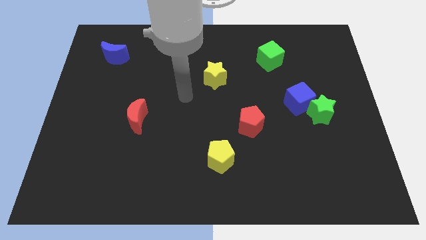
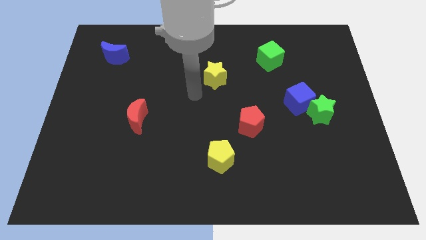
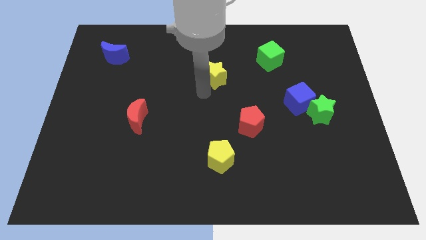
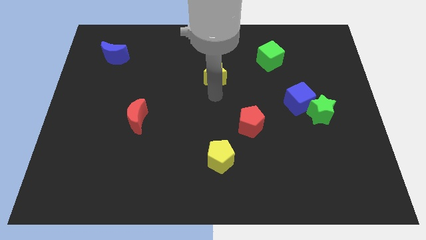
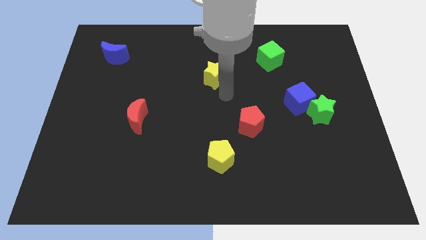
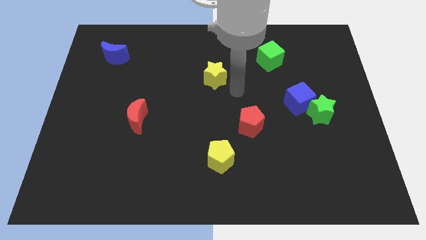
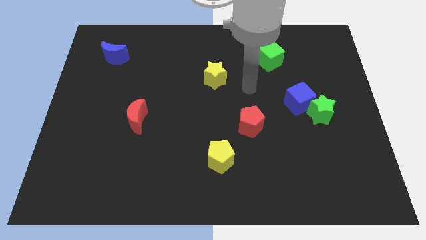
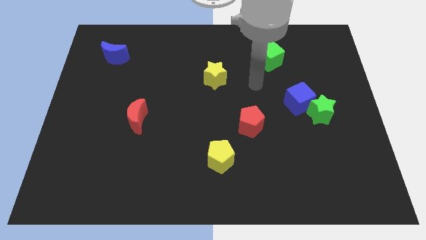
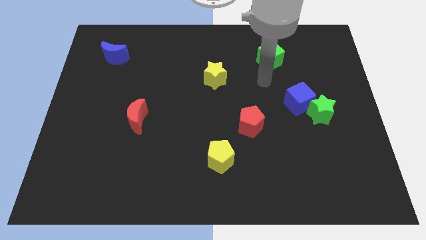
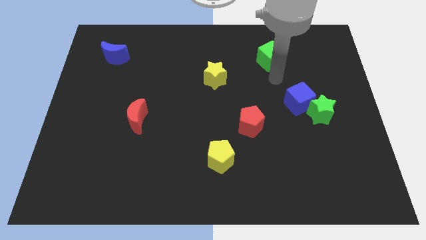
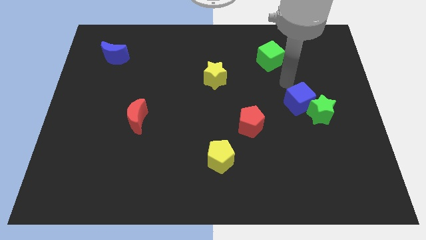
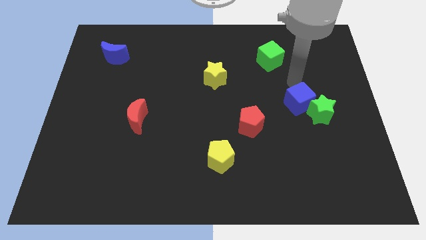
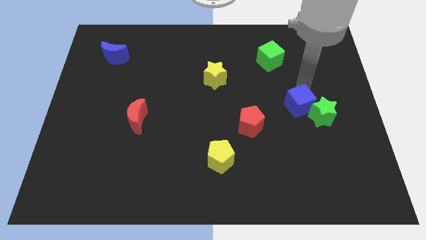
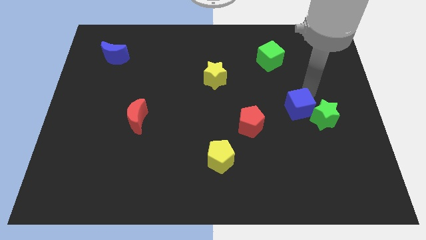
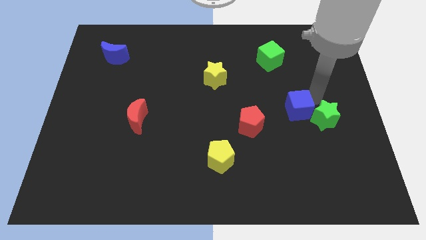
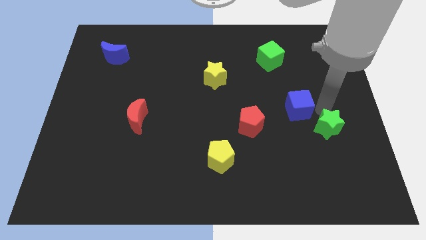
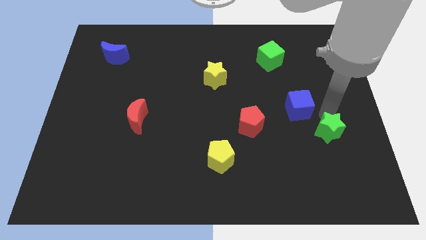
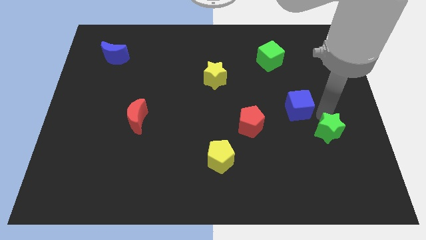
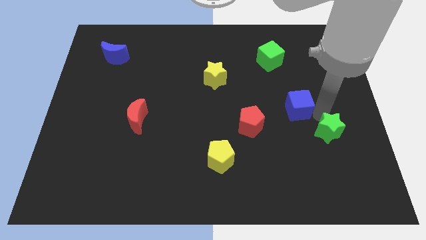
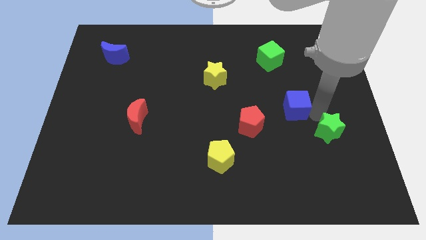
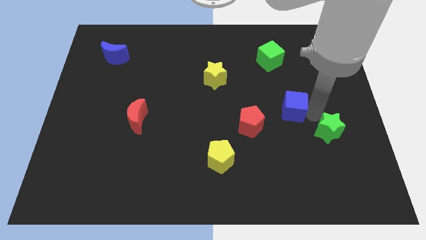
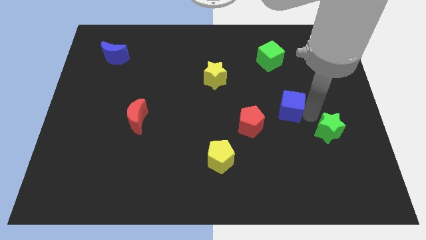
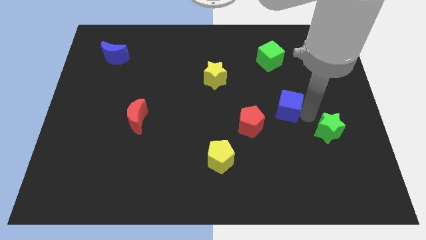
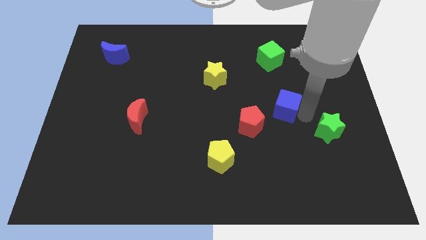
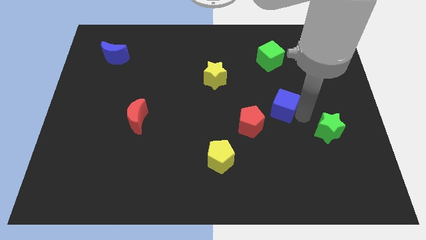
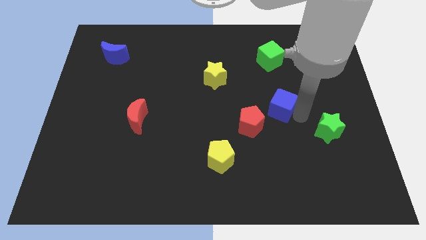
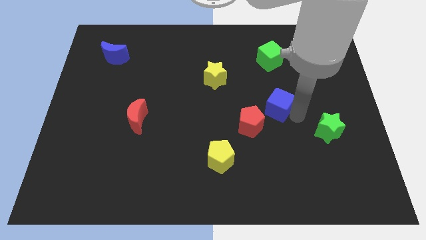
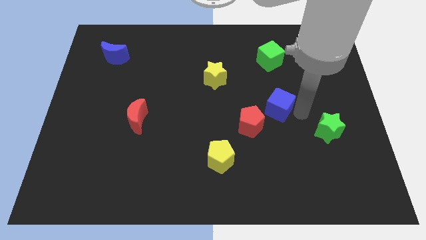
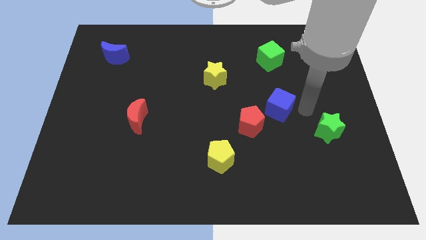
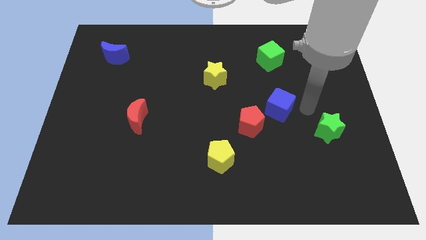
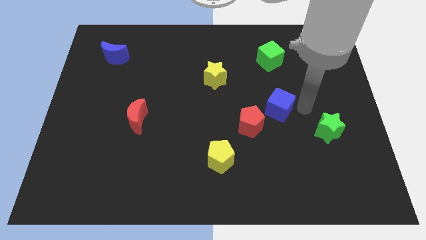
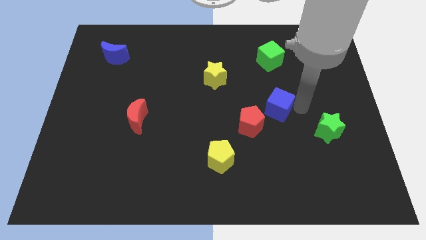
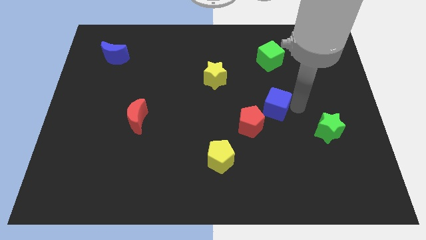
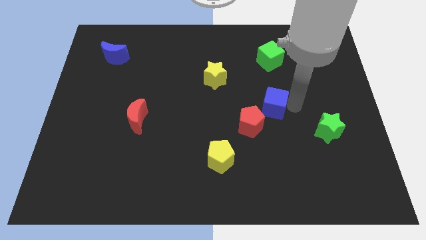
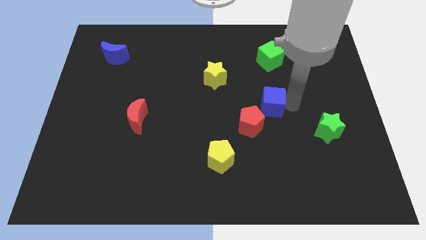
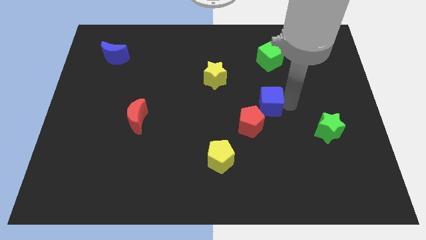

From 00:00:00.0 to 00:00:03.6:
push the blue cube left a bit

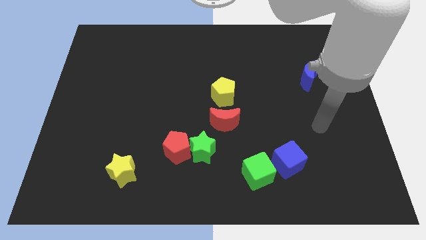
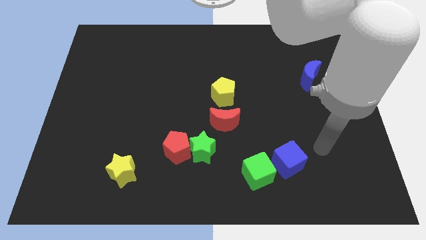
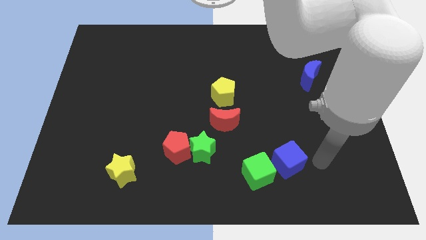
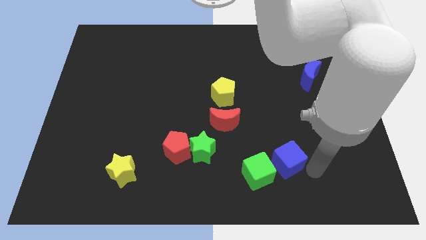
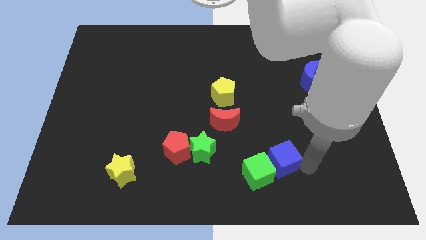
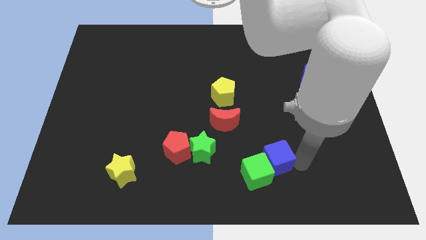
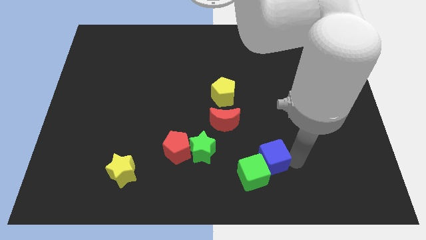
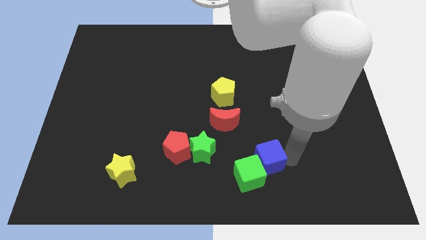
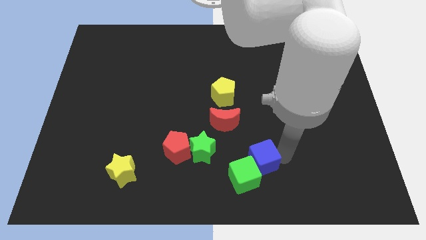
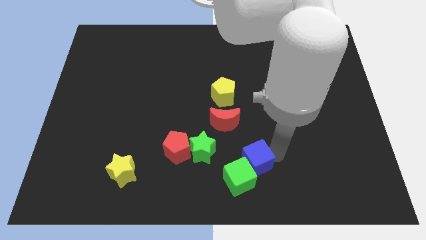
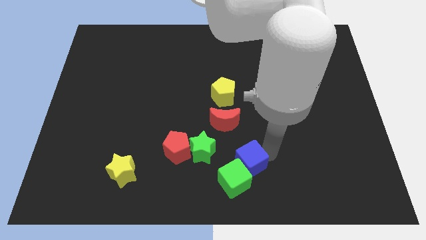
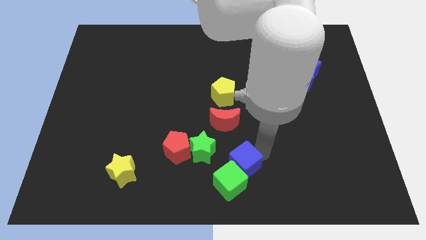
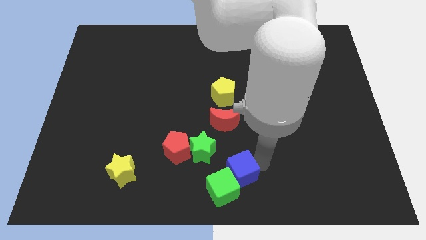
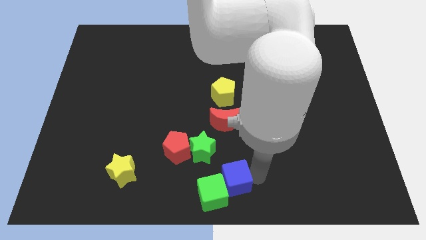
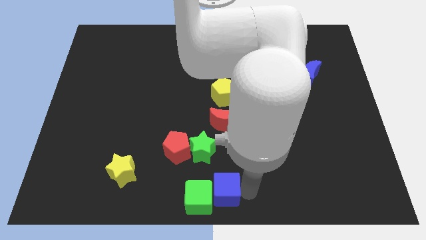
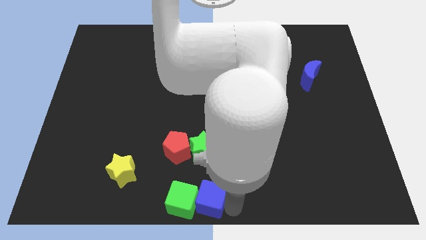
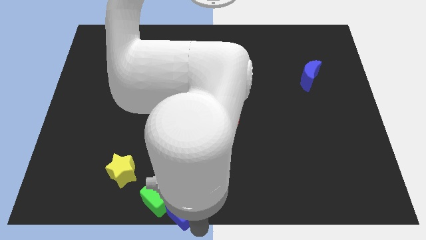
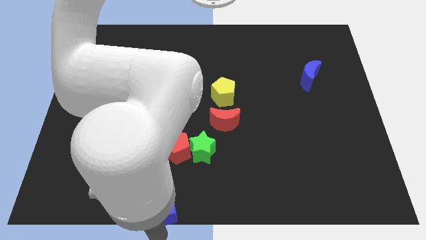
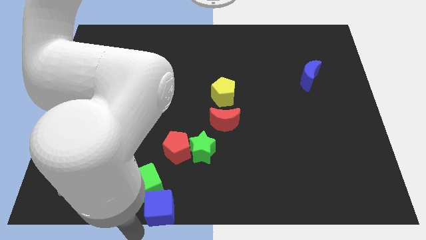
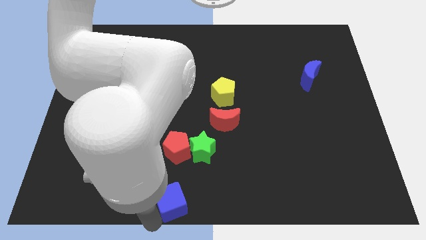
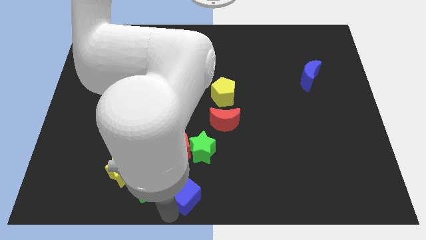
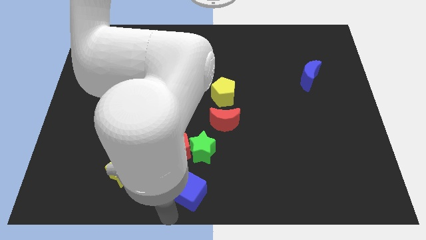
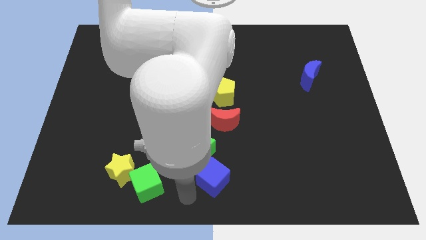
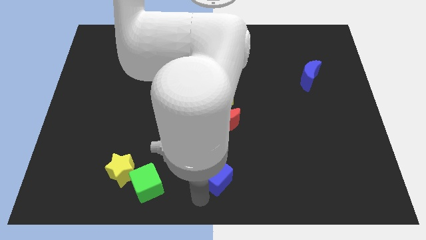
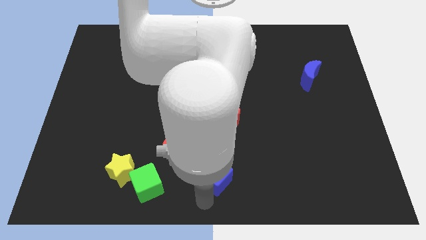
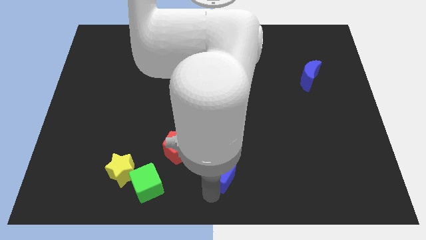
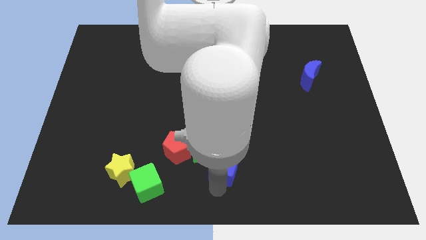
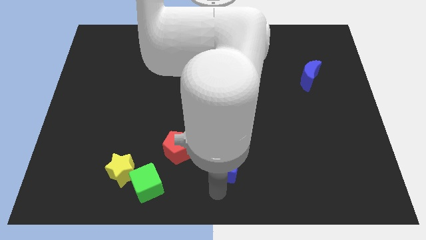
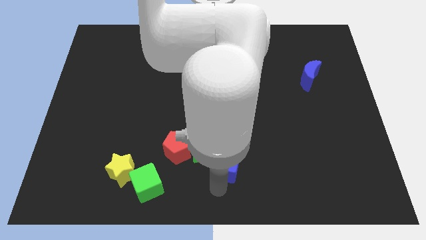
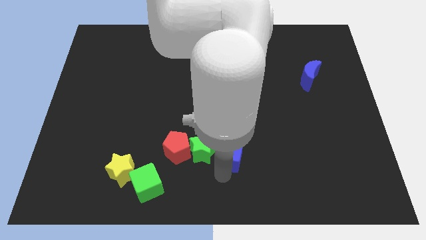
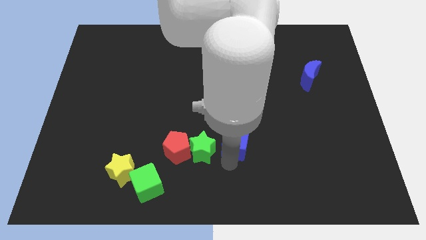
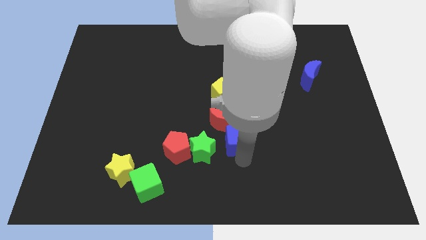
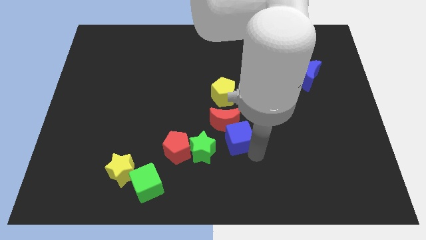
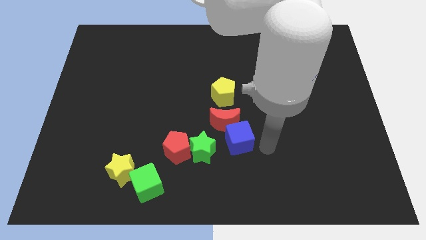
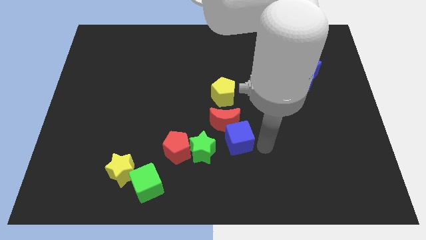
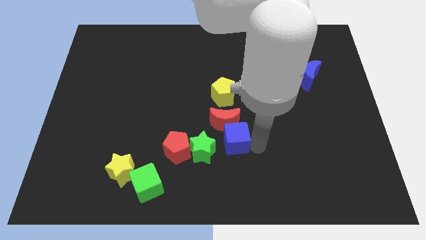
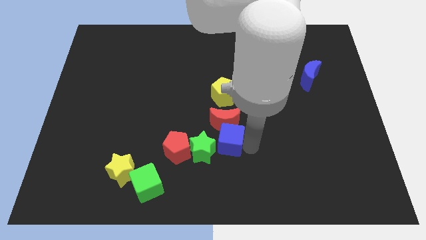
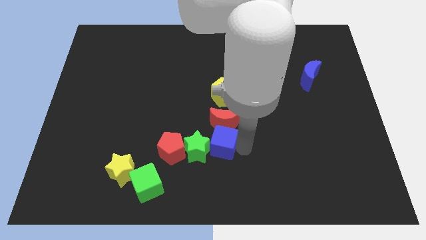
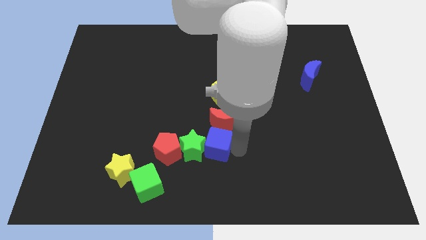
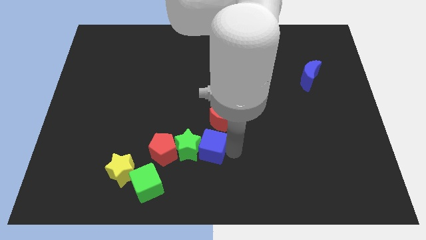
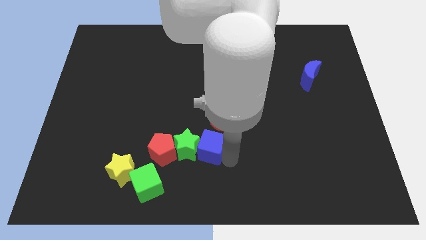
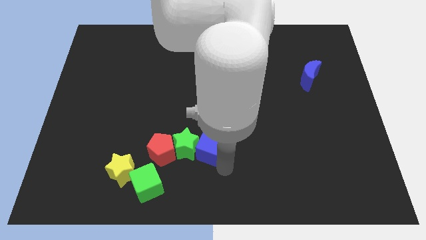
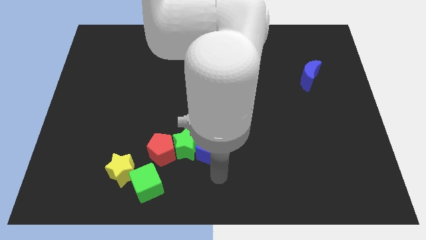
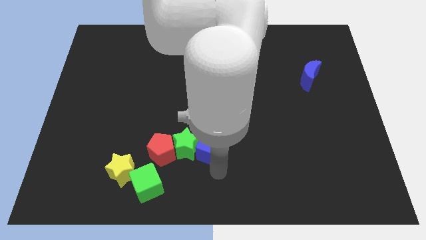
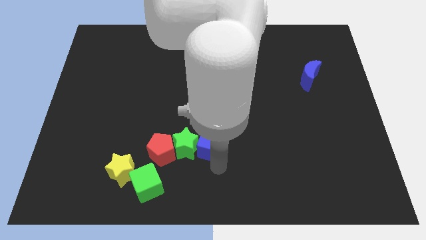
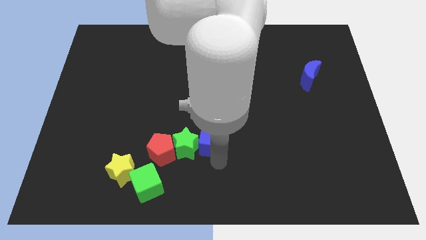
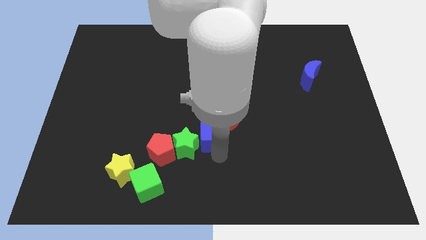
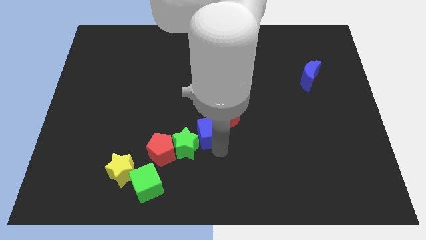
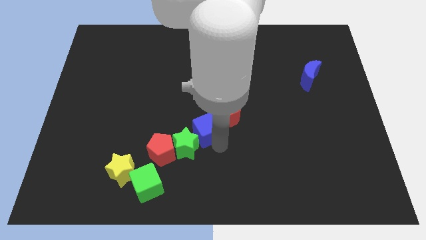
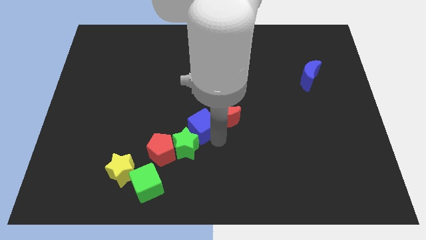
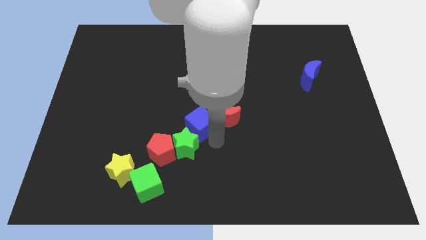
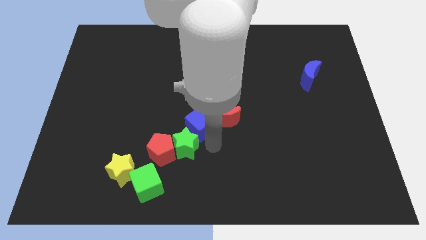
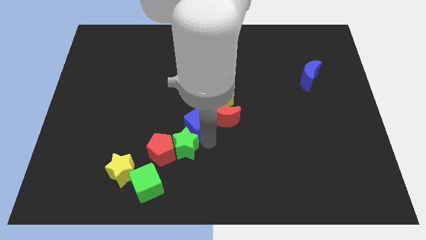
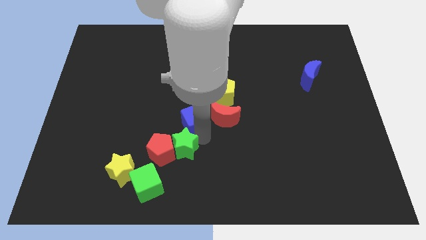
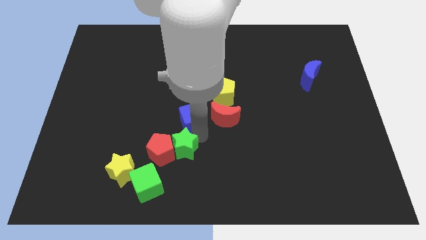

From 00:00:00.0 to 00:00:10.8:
push the blue cube upwards and left
